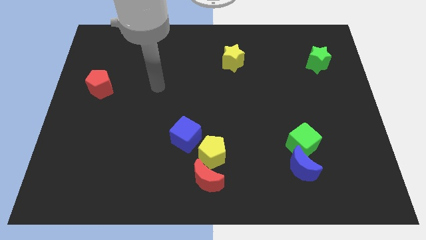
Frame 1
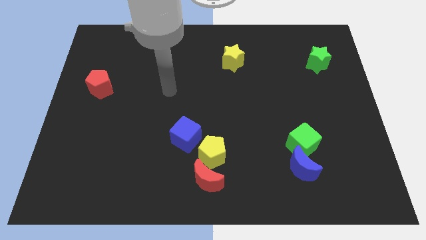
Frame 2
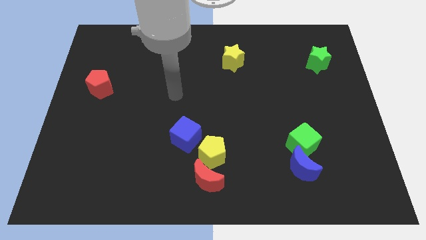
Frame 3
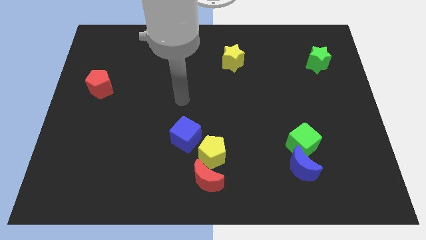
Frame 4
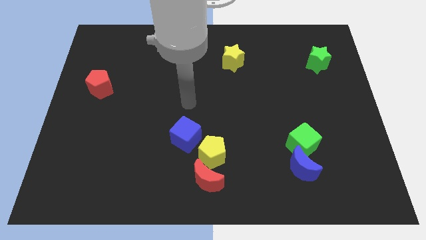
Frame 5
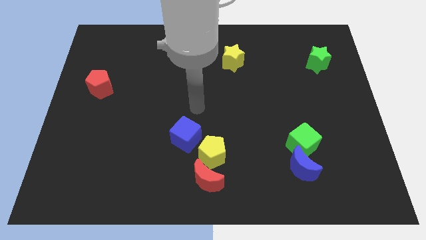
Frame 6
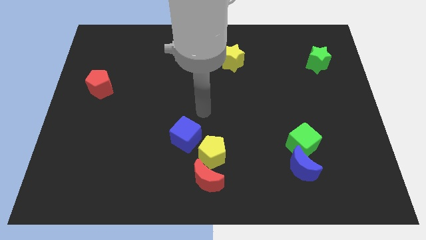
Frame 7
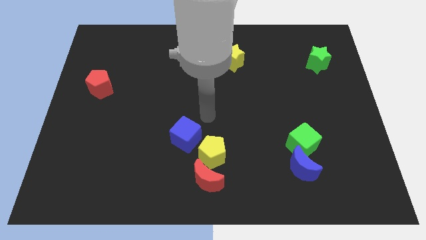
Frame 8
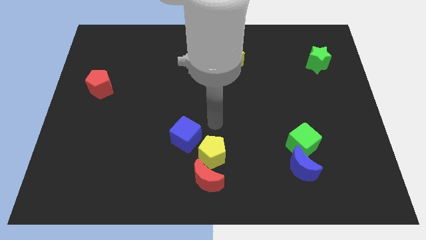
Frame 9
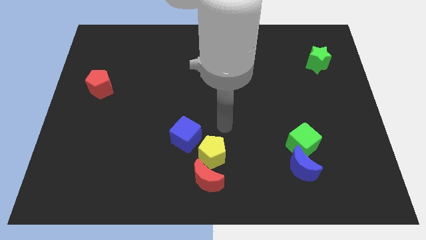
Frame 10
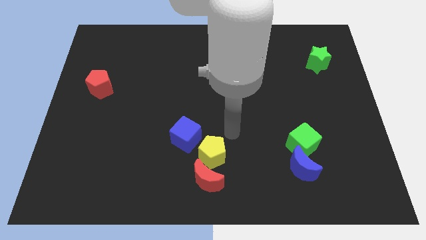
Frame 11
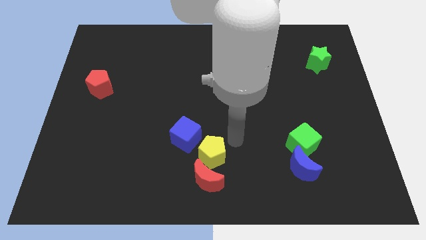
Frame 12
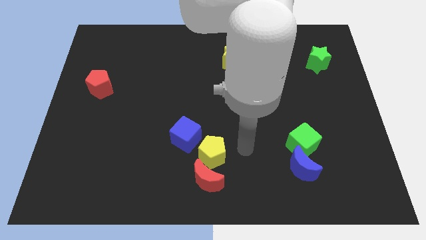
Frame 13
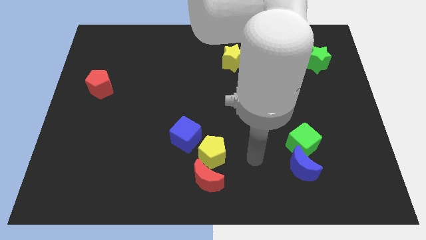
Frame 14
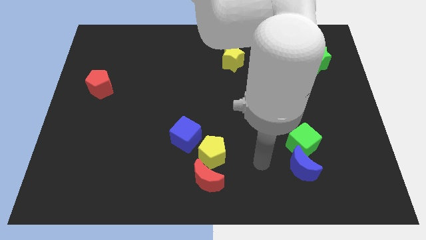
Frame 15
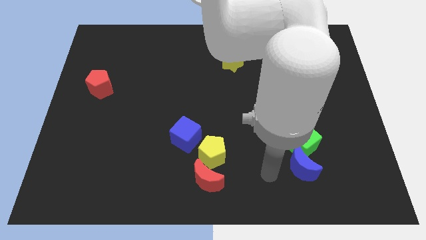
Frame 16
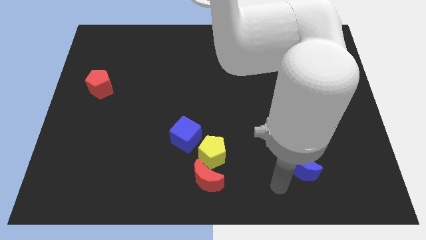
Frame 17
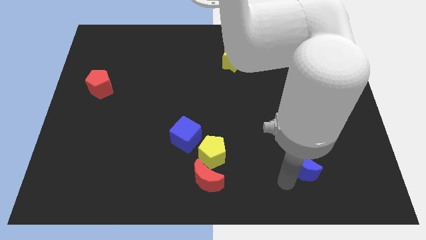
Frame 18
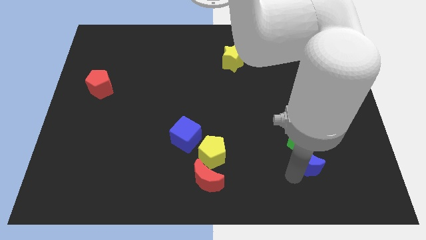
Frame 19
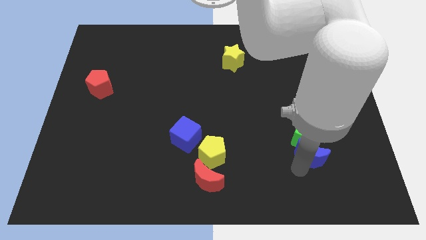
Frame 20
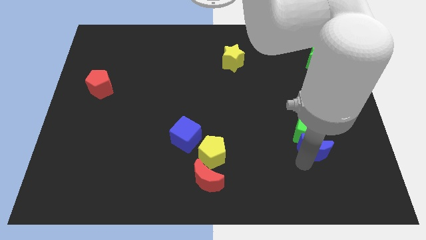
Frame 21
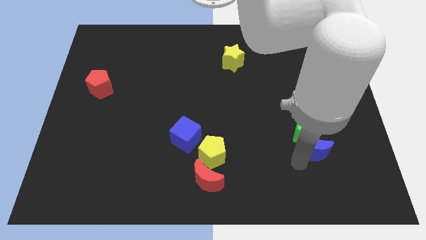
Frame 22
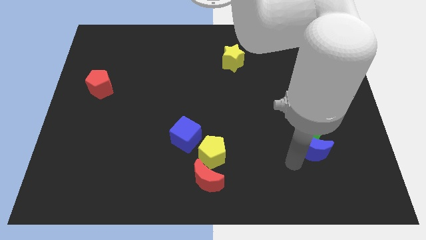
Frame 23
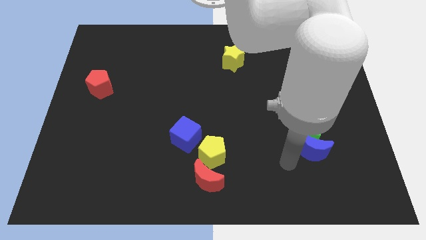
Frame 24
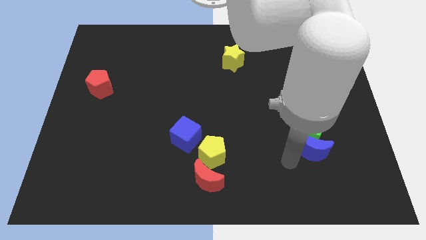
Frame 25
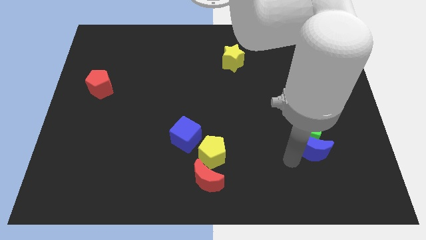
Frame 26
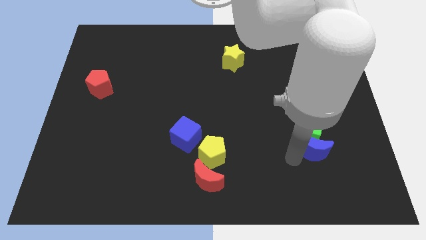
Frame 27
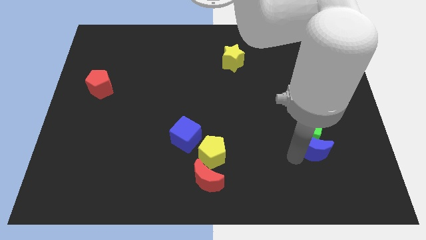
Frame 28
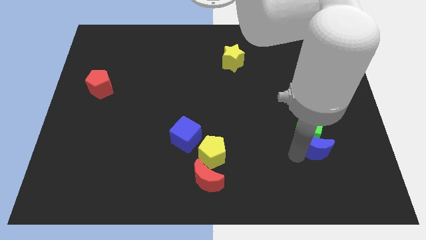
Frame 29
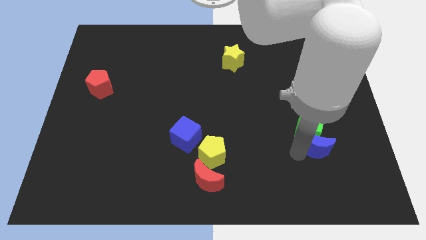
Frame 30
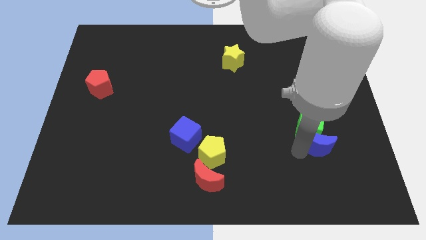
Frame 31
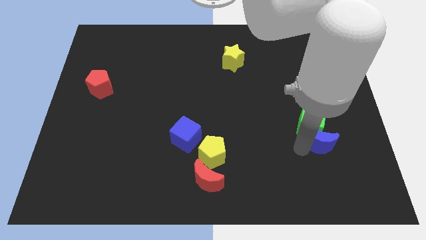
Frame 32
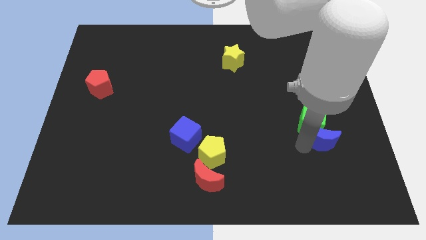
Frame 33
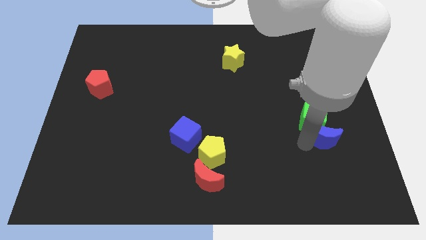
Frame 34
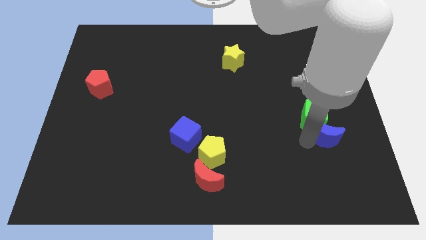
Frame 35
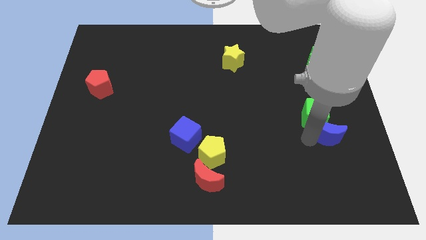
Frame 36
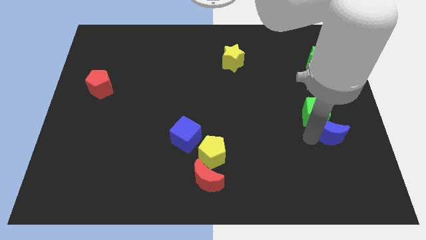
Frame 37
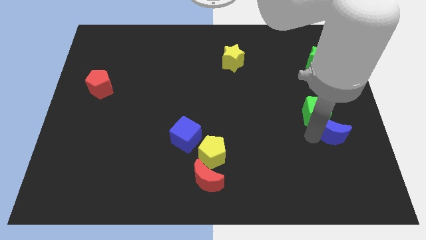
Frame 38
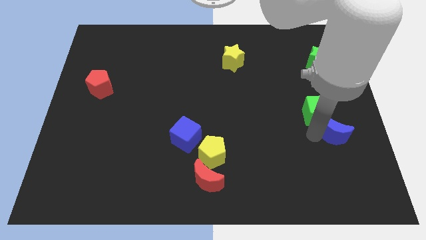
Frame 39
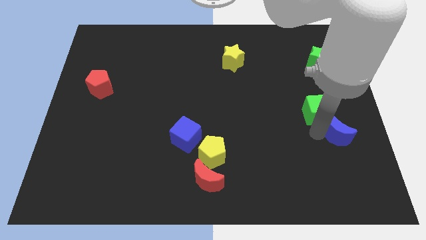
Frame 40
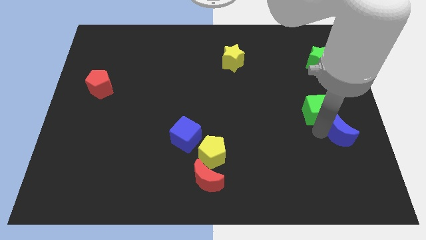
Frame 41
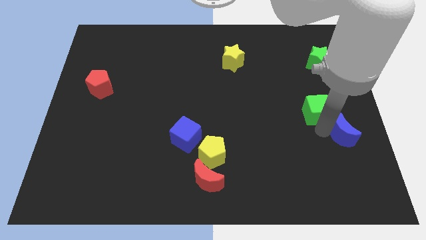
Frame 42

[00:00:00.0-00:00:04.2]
slide the blue moon to the right side

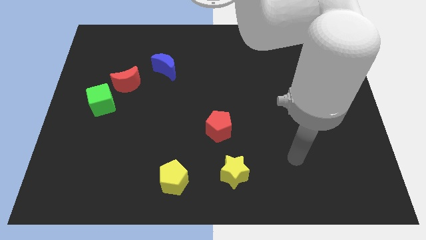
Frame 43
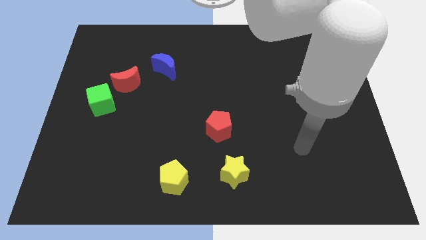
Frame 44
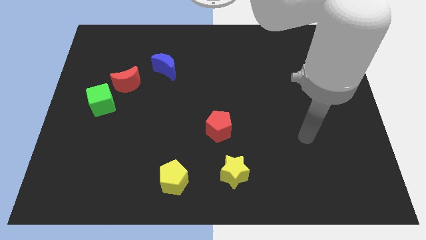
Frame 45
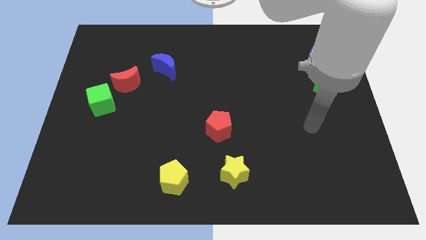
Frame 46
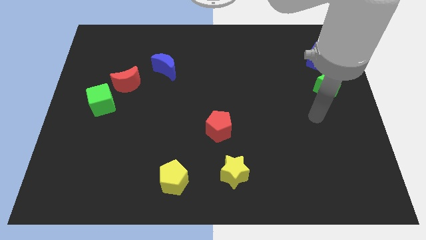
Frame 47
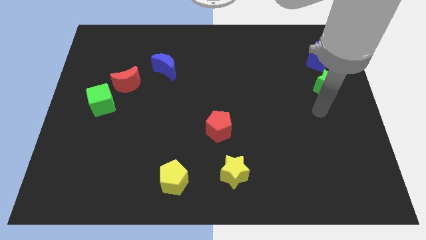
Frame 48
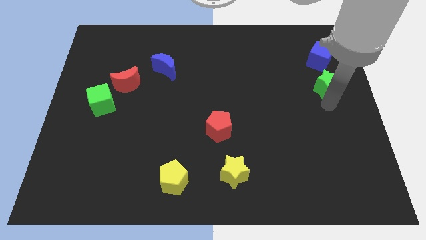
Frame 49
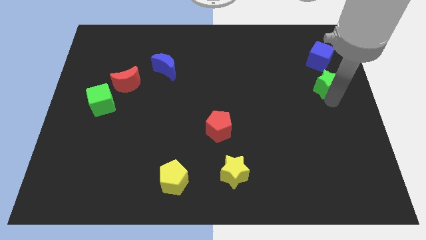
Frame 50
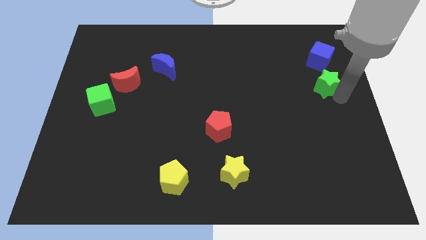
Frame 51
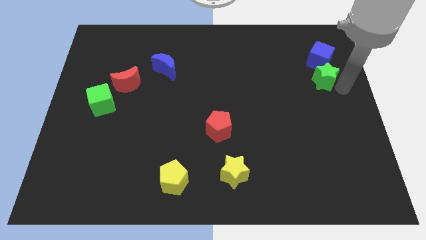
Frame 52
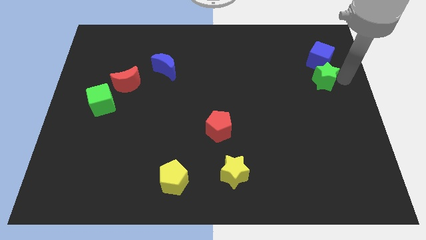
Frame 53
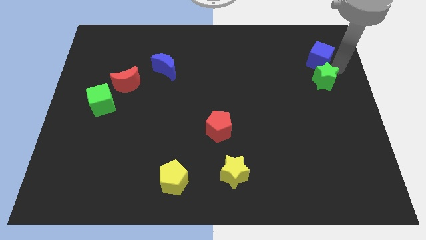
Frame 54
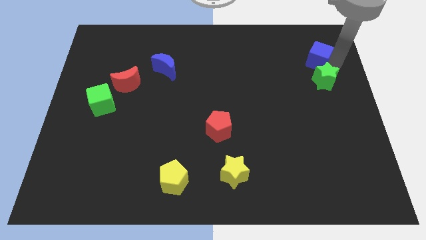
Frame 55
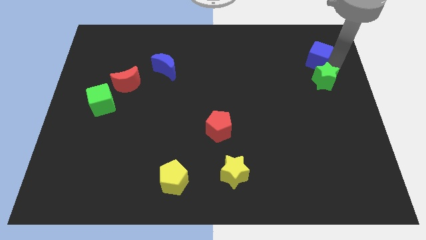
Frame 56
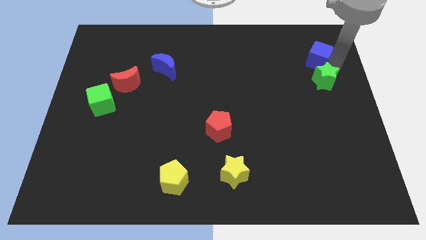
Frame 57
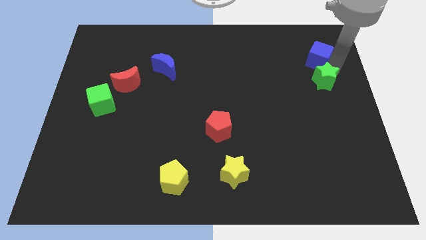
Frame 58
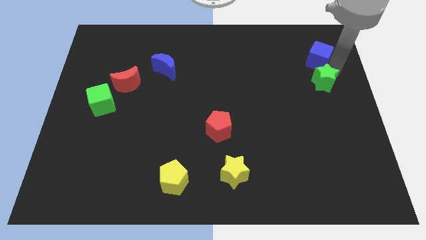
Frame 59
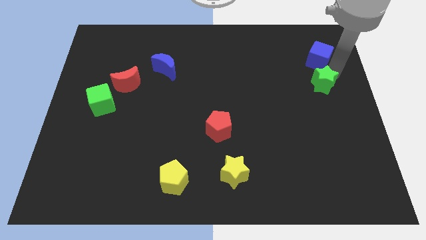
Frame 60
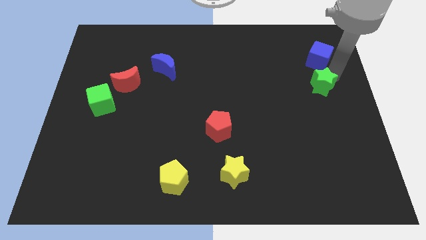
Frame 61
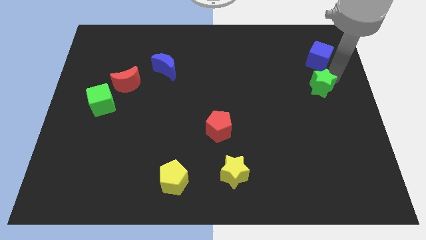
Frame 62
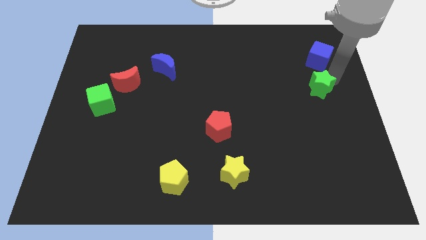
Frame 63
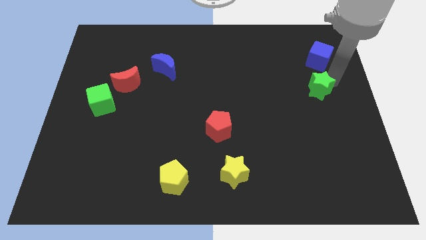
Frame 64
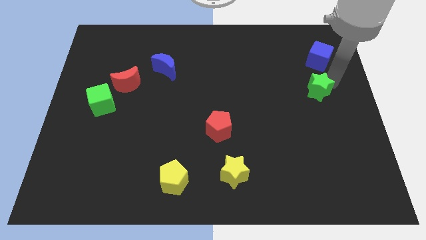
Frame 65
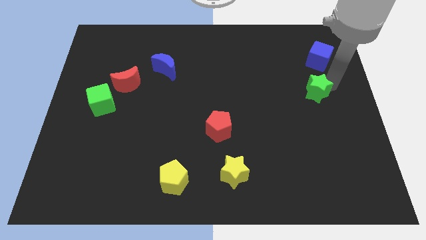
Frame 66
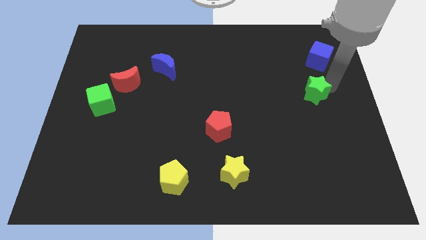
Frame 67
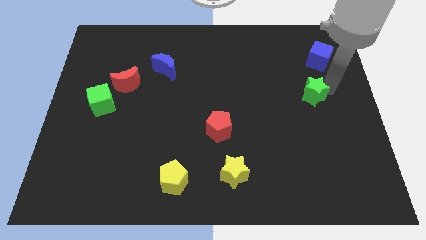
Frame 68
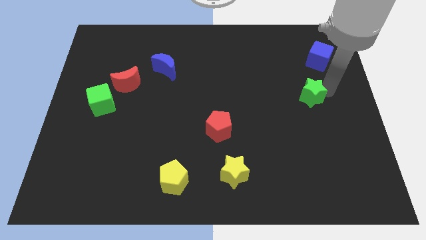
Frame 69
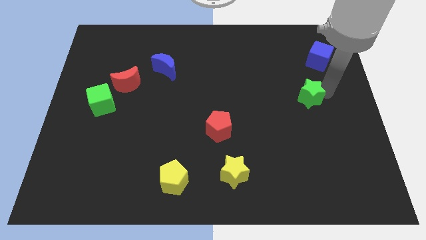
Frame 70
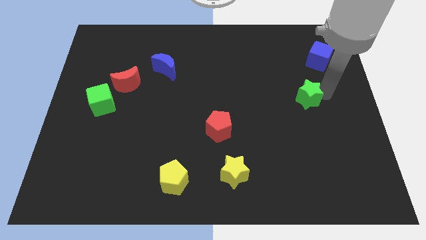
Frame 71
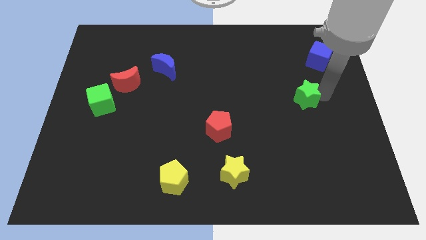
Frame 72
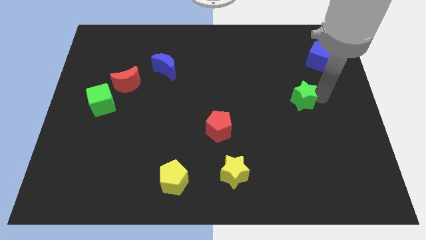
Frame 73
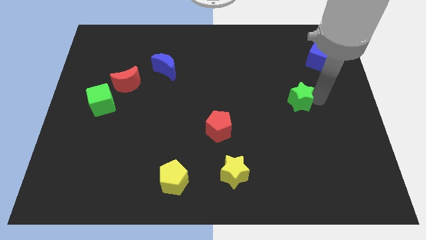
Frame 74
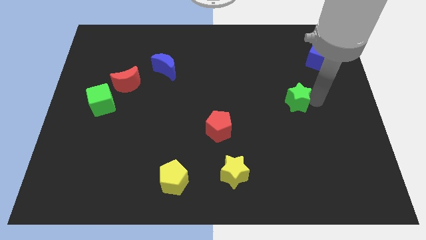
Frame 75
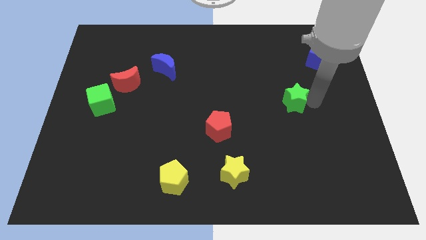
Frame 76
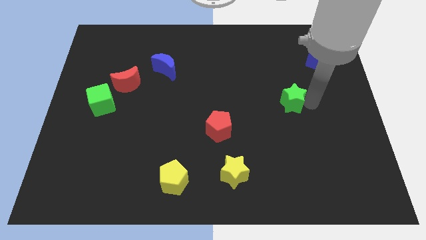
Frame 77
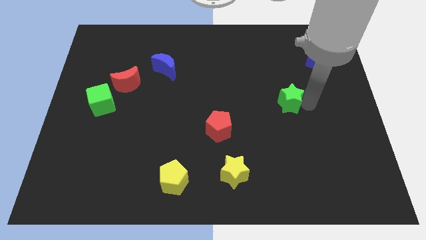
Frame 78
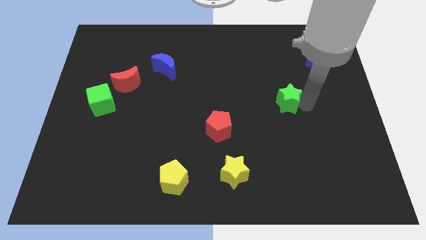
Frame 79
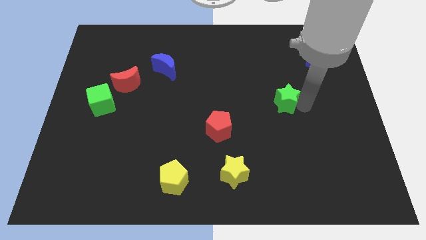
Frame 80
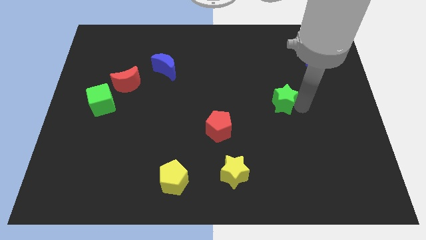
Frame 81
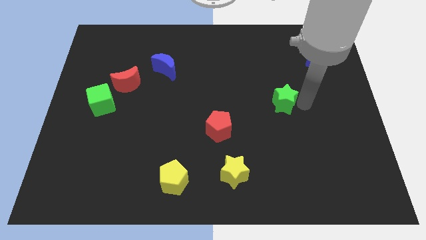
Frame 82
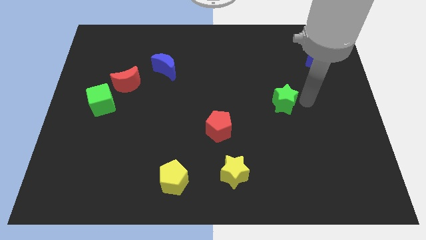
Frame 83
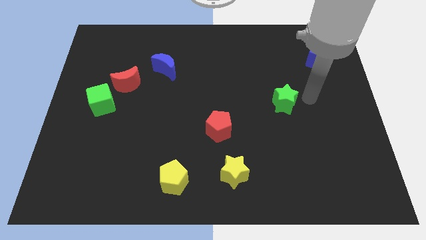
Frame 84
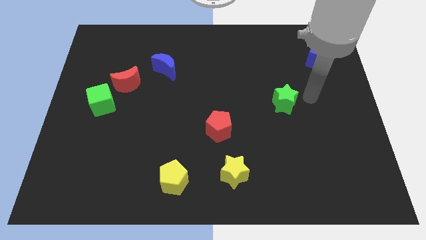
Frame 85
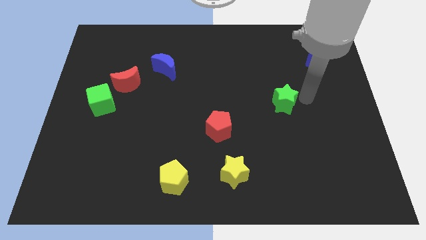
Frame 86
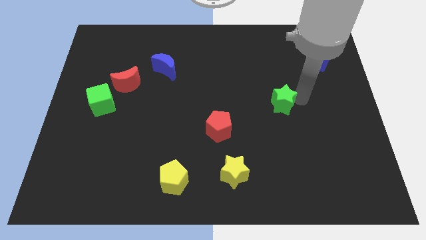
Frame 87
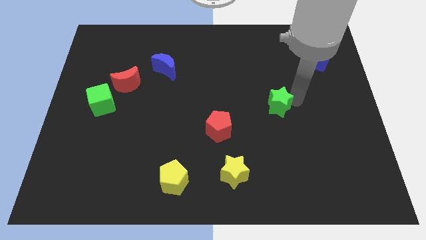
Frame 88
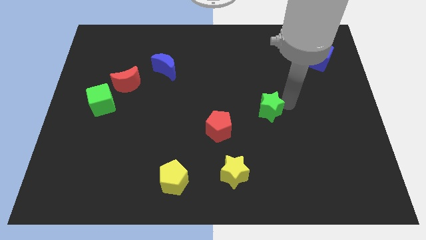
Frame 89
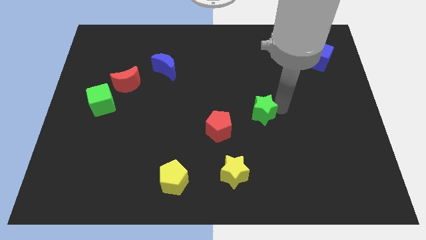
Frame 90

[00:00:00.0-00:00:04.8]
push the green star to the center
